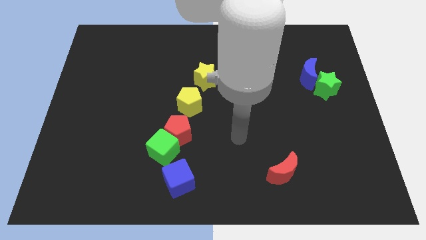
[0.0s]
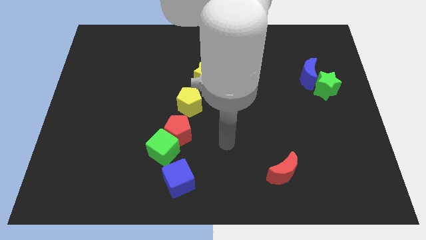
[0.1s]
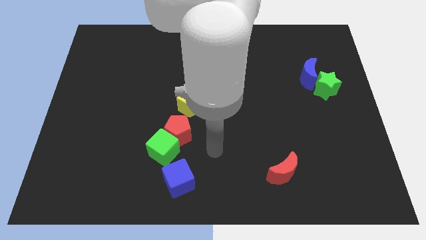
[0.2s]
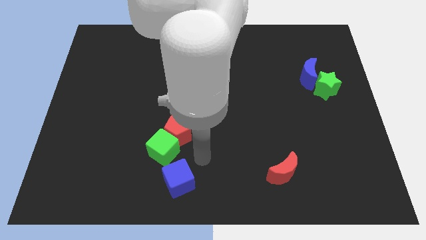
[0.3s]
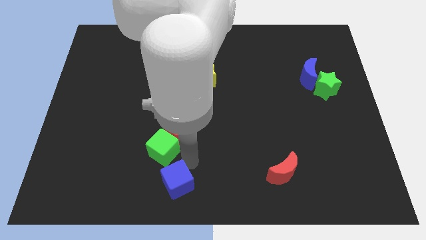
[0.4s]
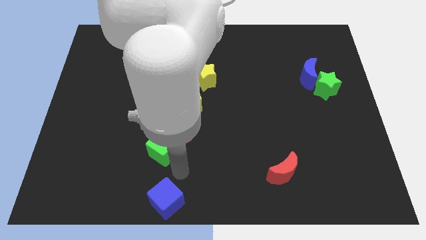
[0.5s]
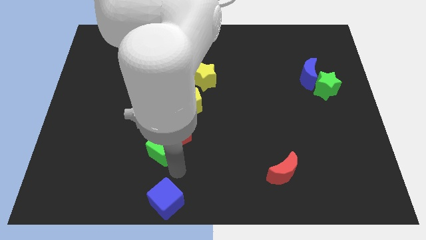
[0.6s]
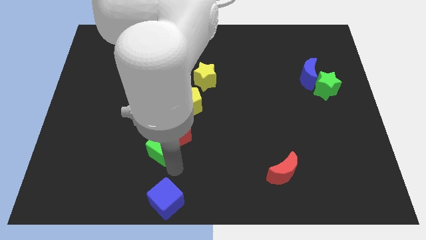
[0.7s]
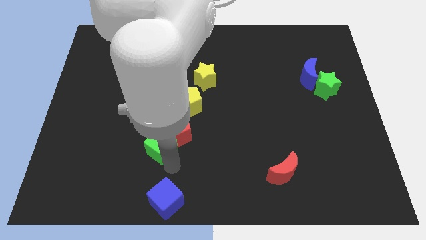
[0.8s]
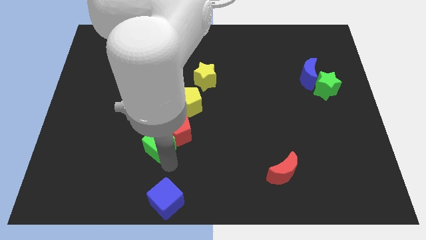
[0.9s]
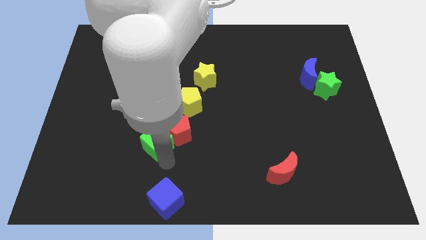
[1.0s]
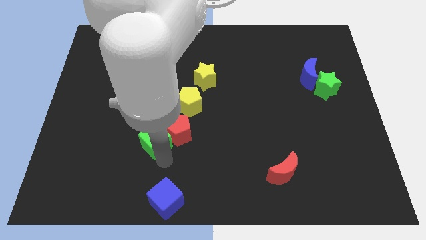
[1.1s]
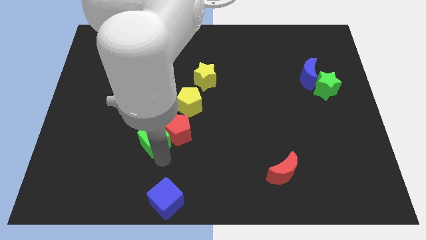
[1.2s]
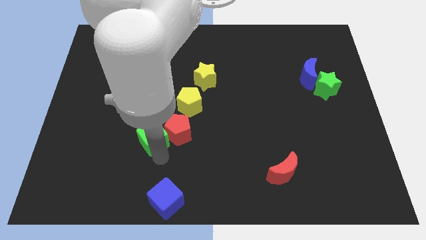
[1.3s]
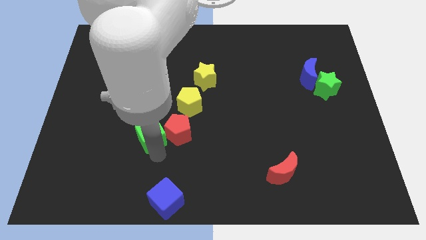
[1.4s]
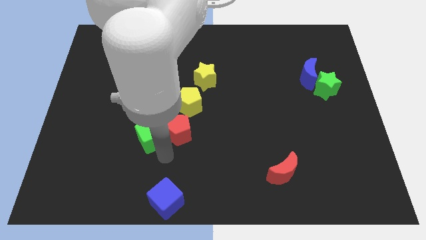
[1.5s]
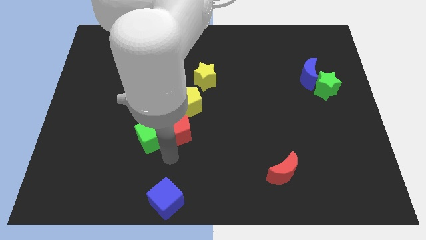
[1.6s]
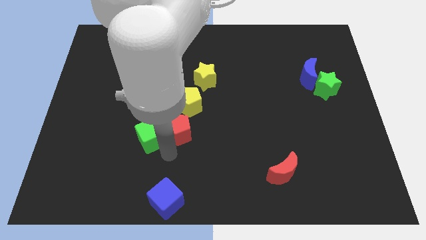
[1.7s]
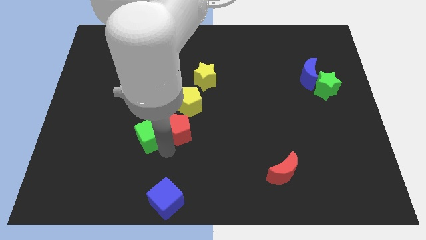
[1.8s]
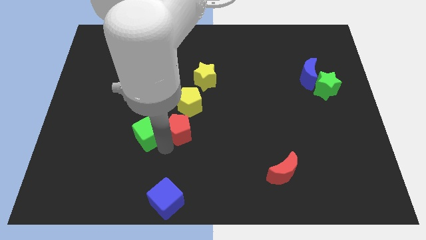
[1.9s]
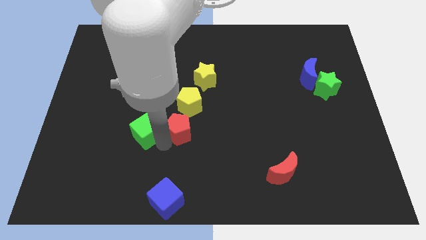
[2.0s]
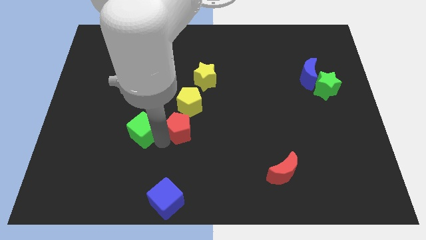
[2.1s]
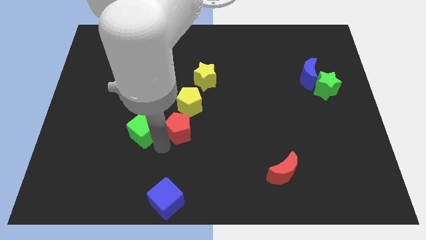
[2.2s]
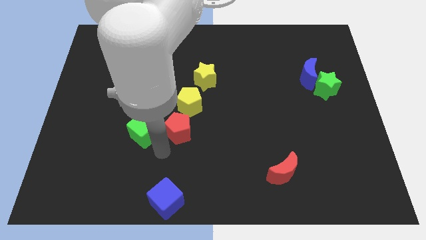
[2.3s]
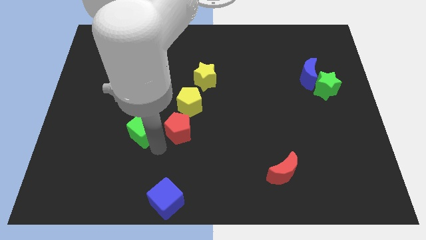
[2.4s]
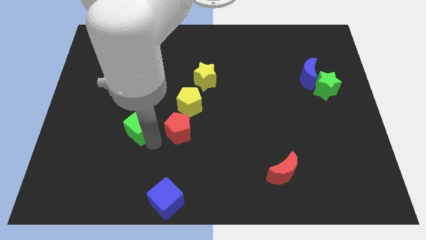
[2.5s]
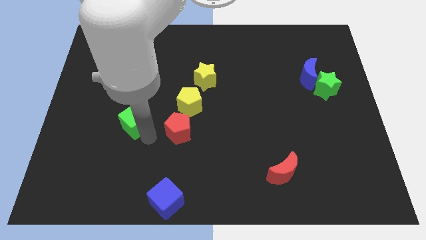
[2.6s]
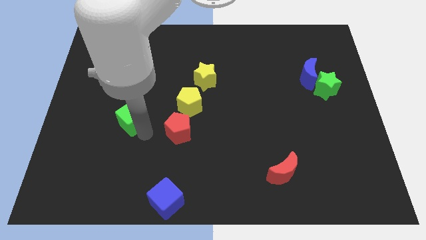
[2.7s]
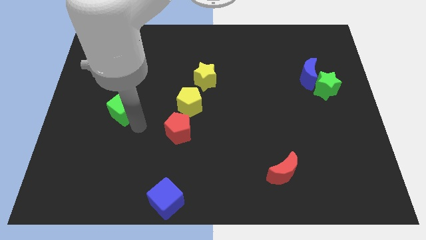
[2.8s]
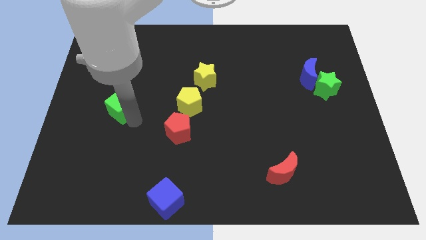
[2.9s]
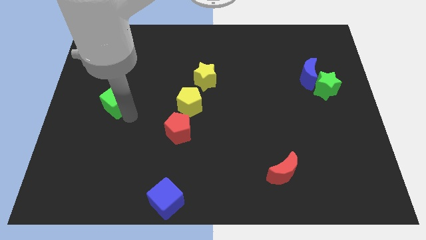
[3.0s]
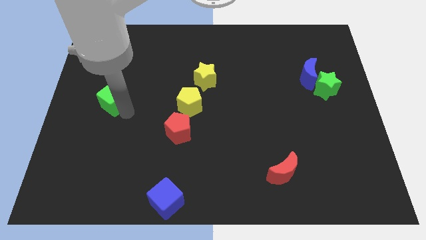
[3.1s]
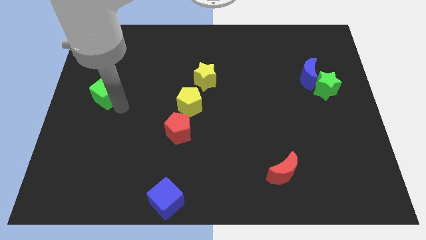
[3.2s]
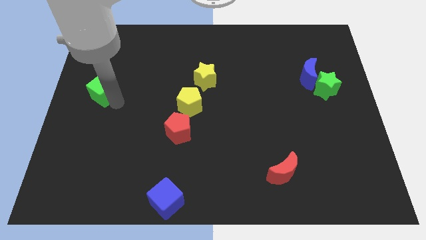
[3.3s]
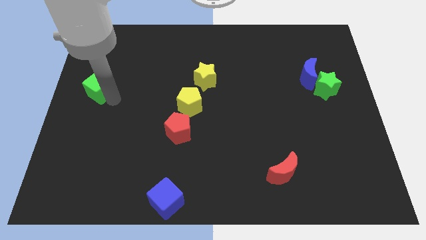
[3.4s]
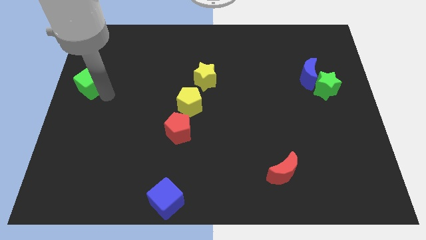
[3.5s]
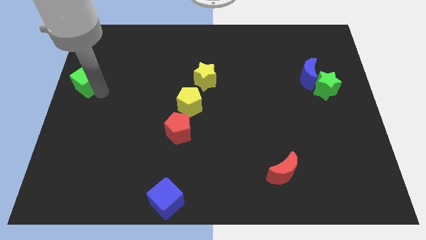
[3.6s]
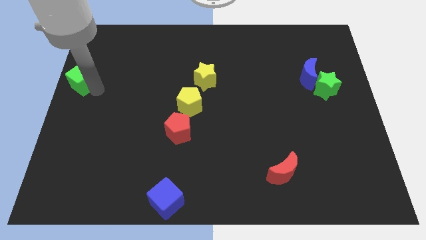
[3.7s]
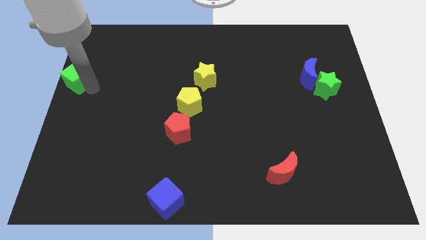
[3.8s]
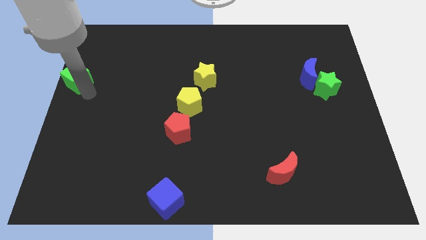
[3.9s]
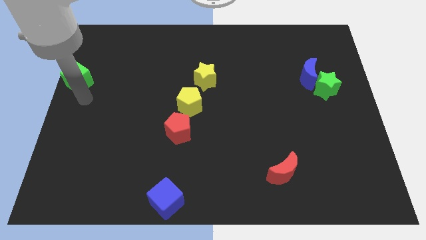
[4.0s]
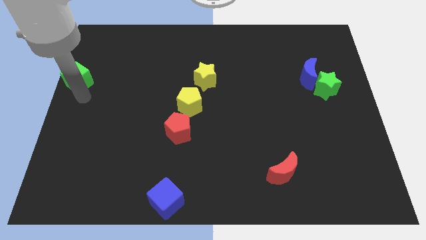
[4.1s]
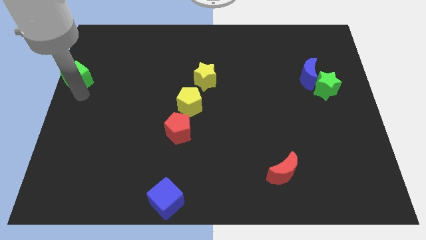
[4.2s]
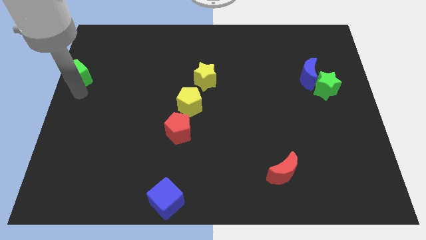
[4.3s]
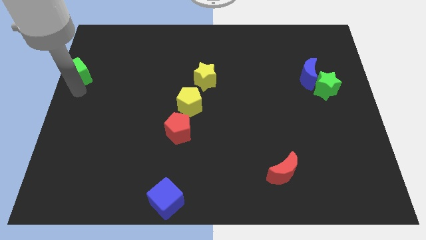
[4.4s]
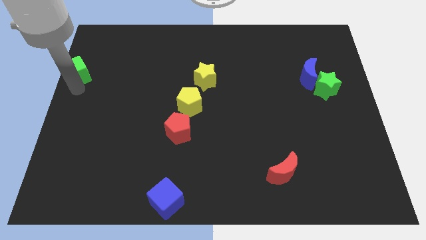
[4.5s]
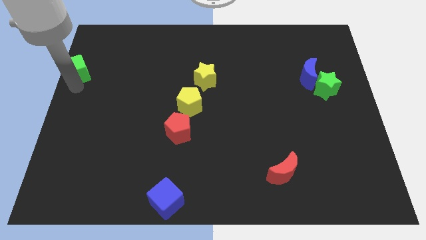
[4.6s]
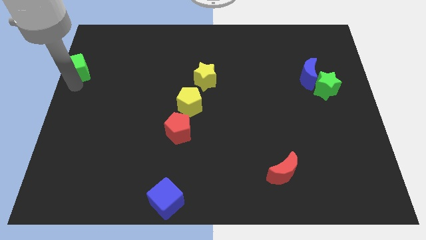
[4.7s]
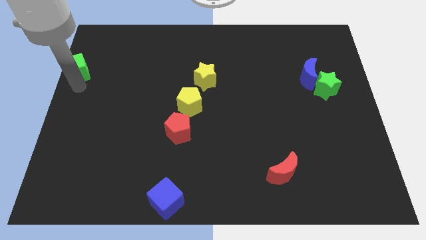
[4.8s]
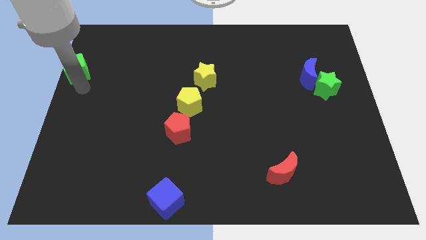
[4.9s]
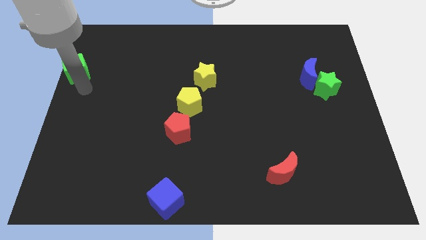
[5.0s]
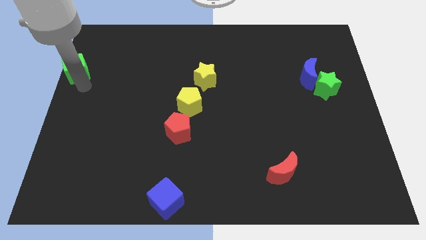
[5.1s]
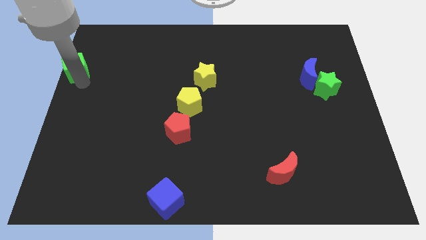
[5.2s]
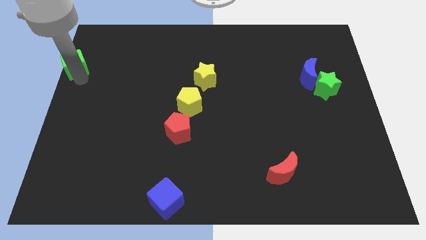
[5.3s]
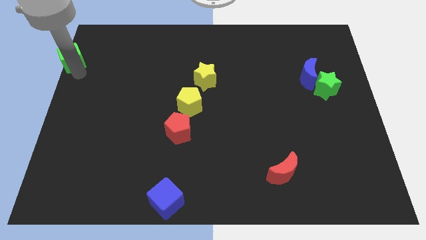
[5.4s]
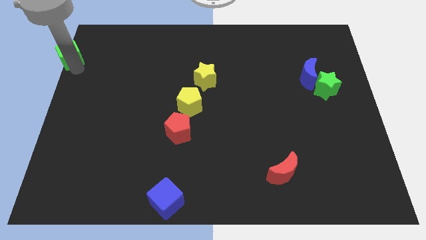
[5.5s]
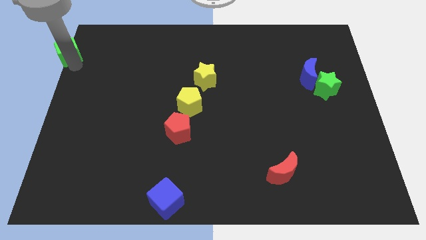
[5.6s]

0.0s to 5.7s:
move the green cube to the top left

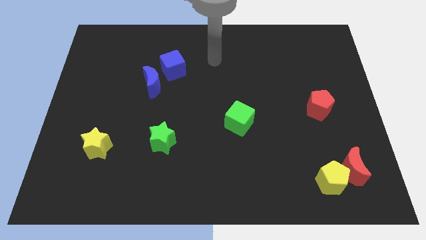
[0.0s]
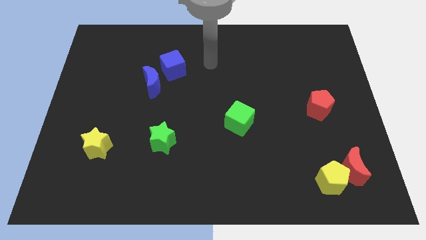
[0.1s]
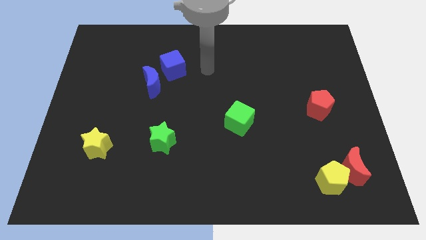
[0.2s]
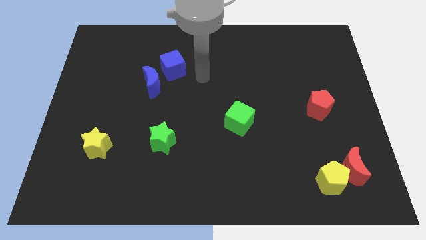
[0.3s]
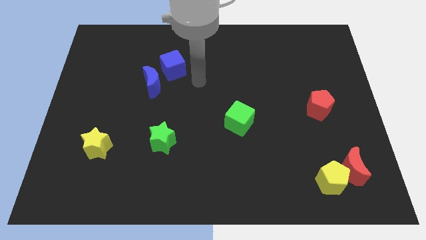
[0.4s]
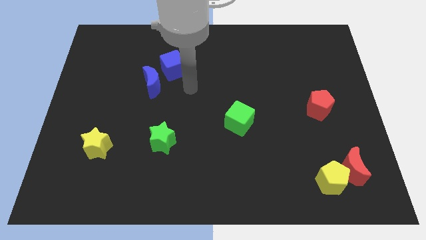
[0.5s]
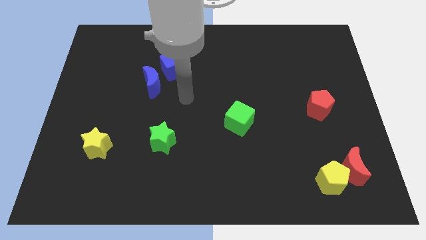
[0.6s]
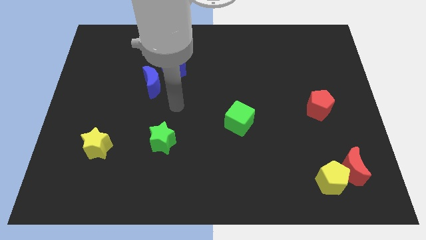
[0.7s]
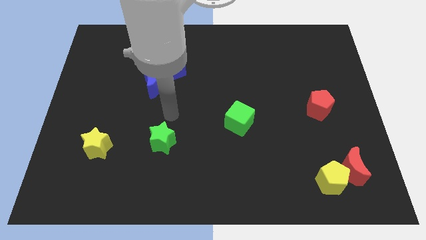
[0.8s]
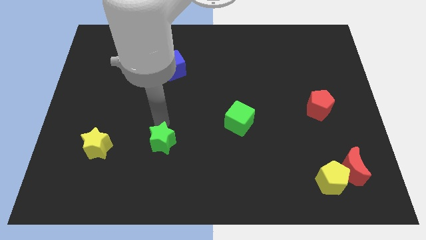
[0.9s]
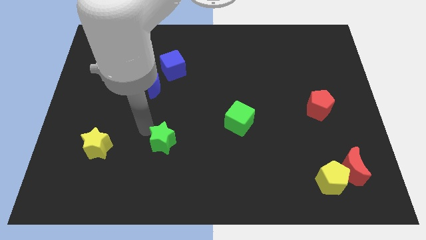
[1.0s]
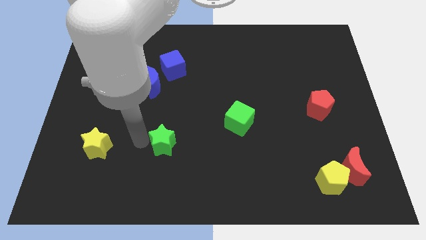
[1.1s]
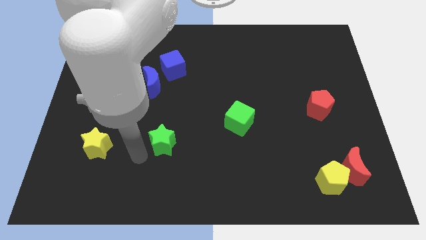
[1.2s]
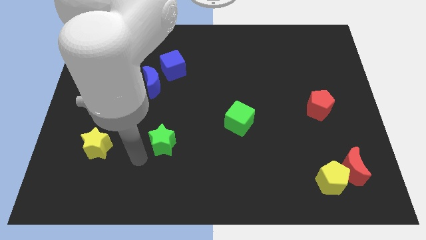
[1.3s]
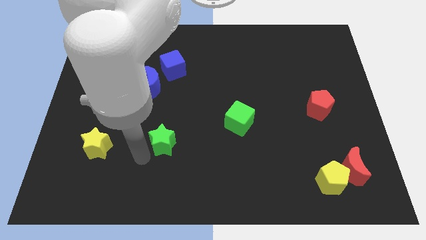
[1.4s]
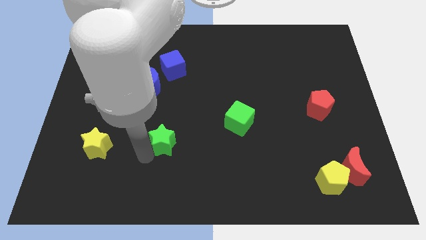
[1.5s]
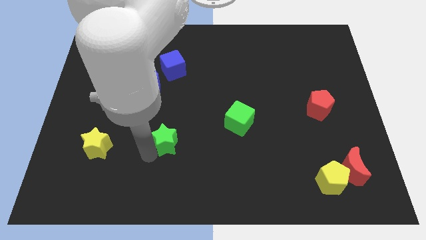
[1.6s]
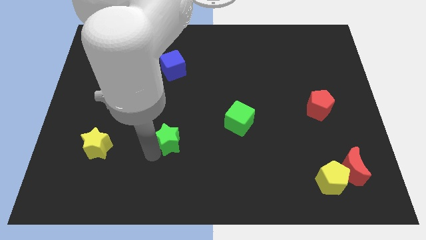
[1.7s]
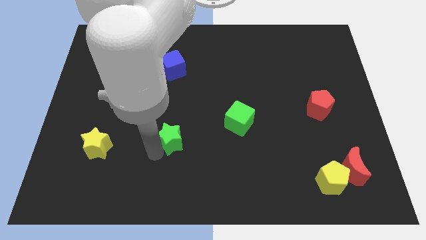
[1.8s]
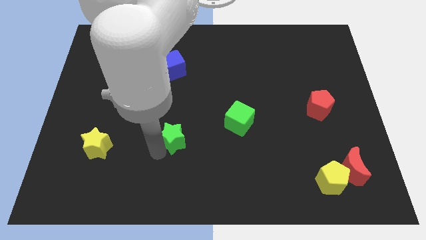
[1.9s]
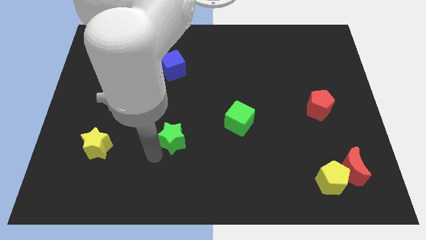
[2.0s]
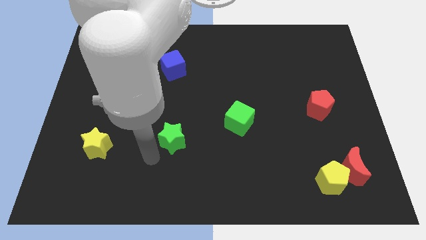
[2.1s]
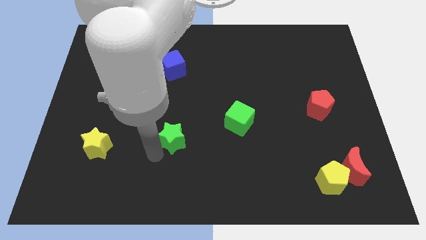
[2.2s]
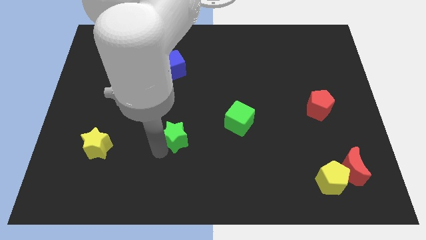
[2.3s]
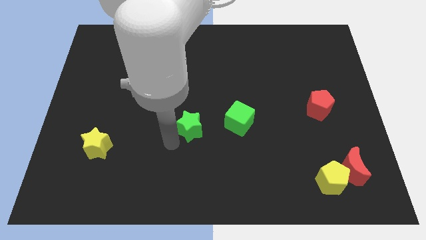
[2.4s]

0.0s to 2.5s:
put the green star to the center of the board
